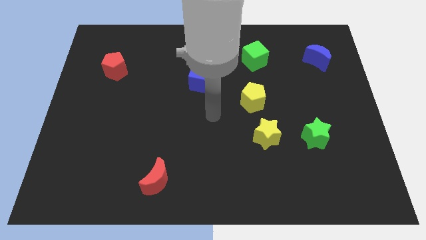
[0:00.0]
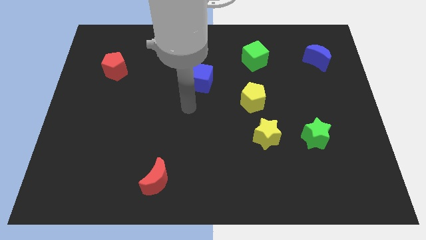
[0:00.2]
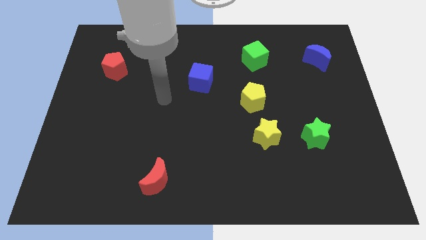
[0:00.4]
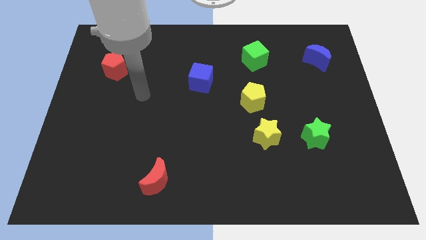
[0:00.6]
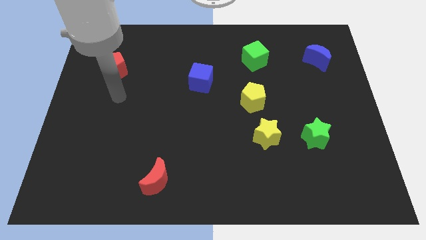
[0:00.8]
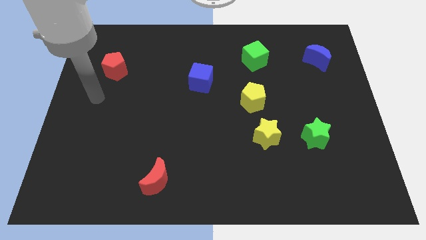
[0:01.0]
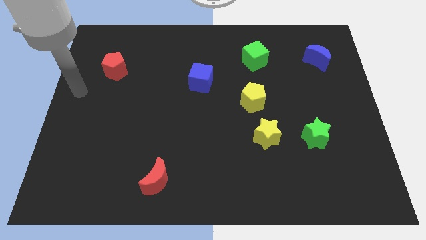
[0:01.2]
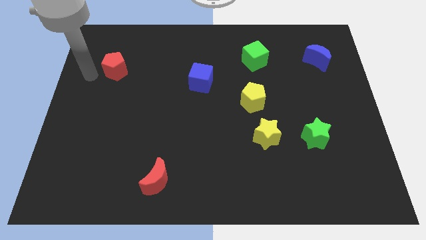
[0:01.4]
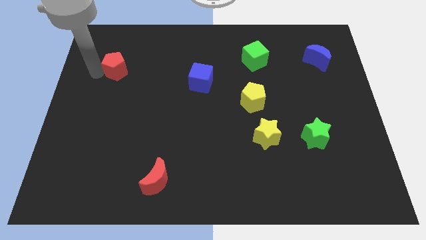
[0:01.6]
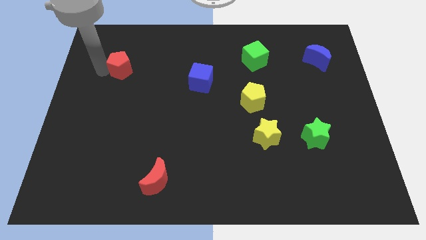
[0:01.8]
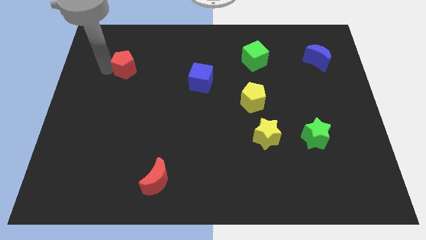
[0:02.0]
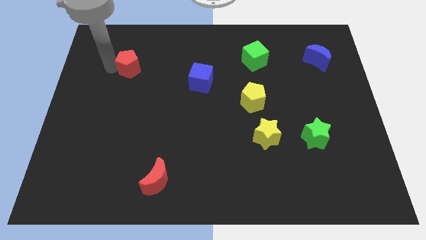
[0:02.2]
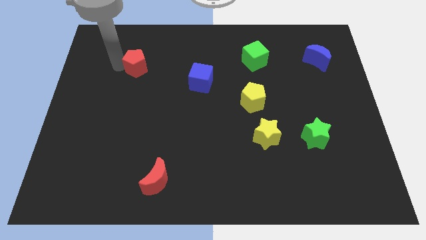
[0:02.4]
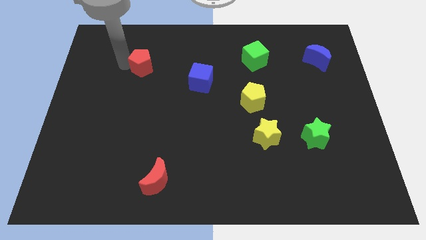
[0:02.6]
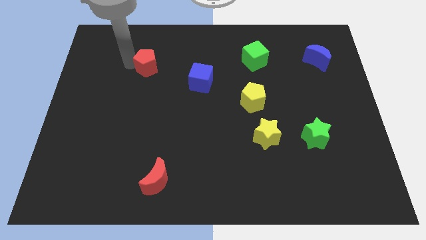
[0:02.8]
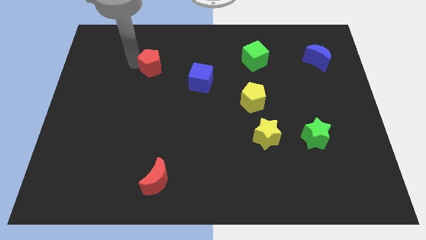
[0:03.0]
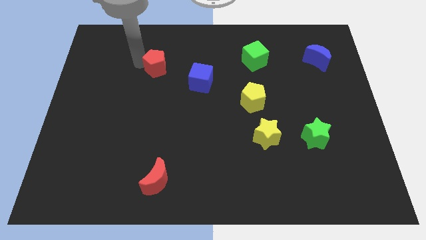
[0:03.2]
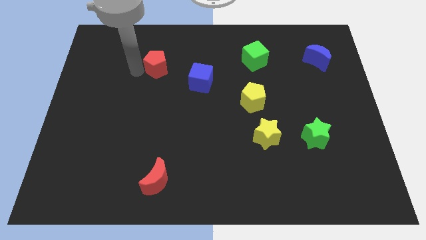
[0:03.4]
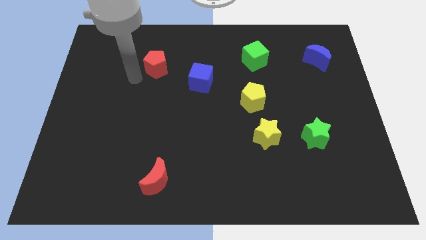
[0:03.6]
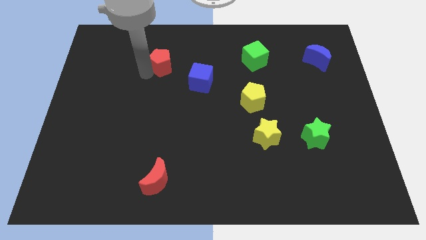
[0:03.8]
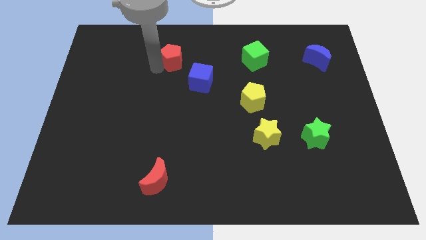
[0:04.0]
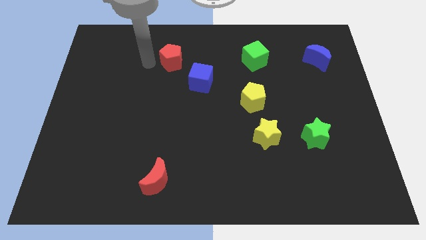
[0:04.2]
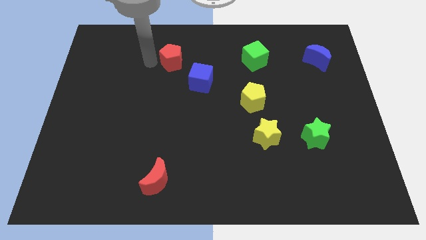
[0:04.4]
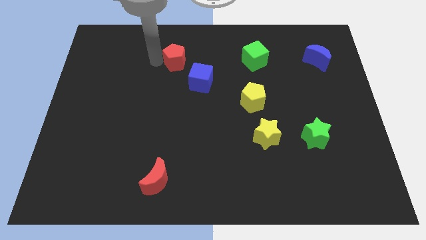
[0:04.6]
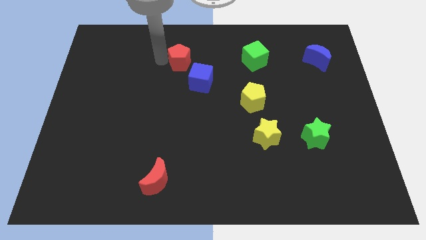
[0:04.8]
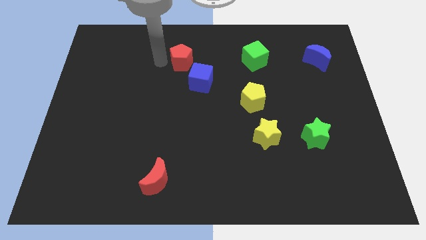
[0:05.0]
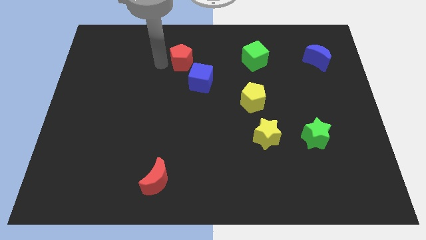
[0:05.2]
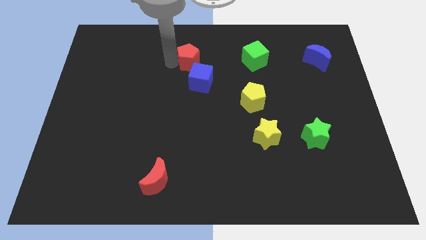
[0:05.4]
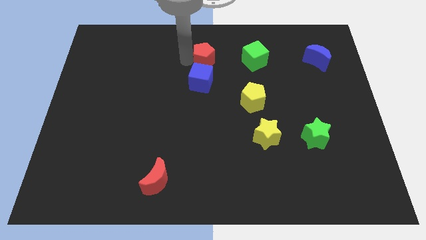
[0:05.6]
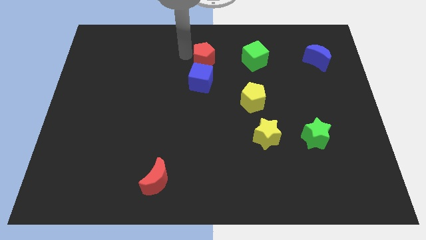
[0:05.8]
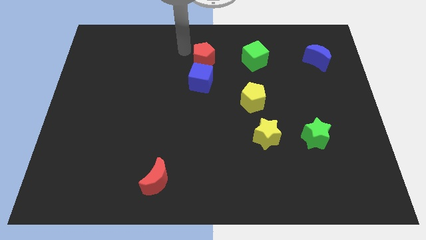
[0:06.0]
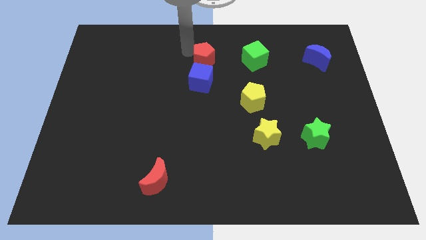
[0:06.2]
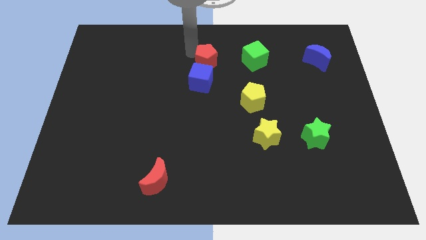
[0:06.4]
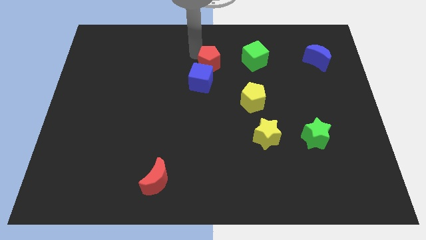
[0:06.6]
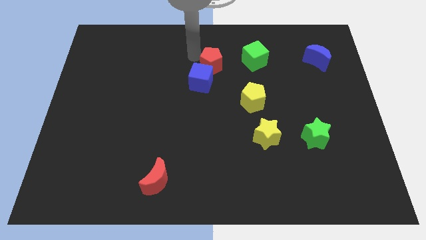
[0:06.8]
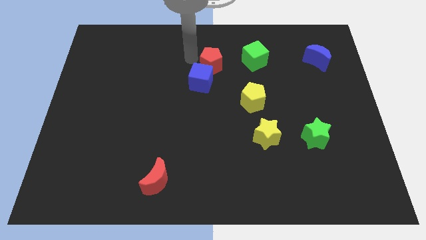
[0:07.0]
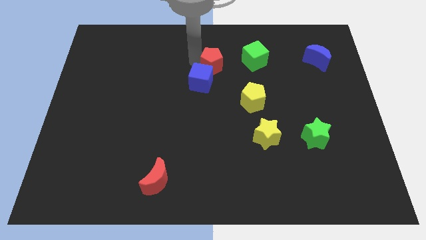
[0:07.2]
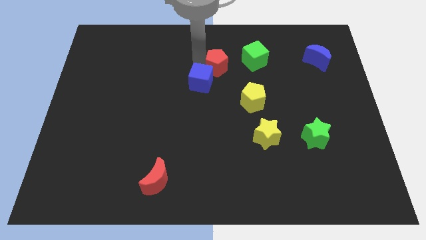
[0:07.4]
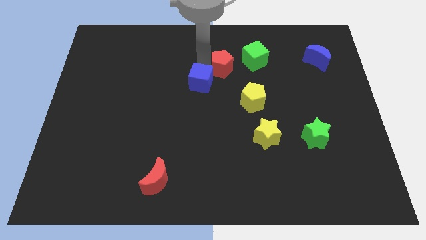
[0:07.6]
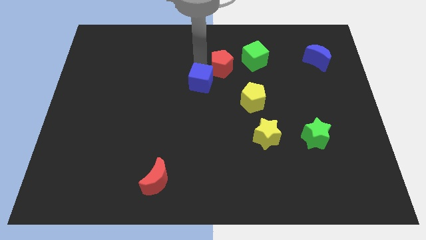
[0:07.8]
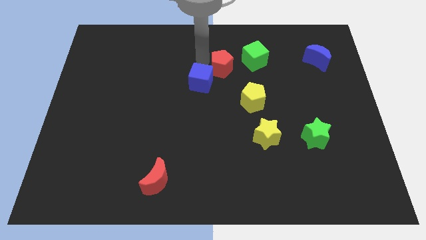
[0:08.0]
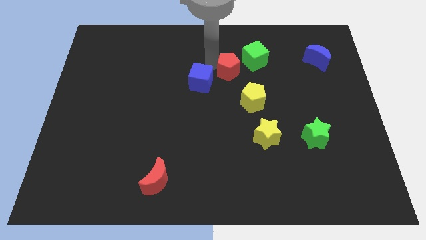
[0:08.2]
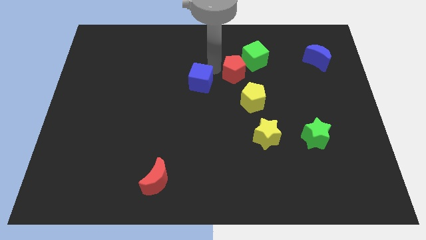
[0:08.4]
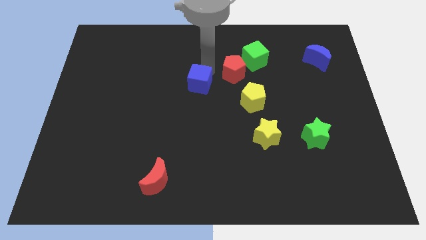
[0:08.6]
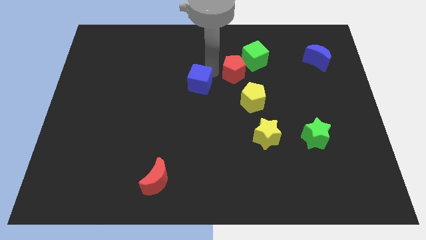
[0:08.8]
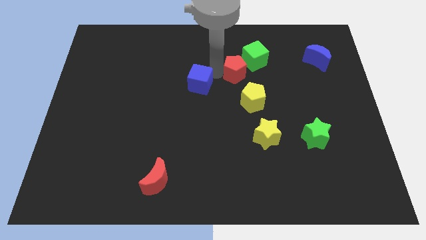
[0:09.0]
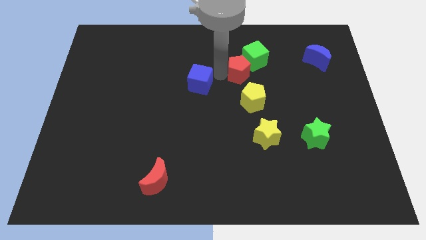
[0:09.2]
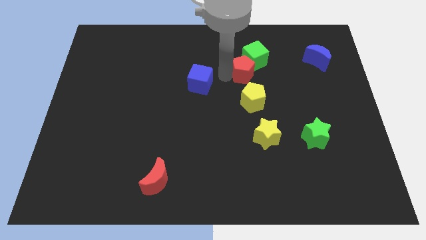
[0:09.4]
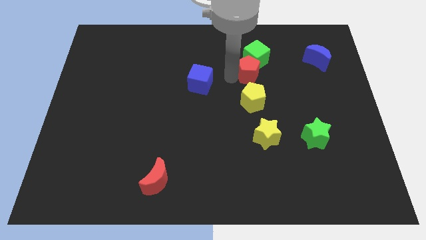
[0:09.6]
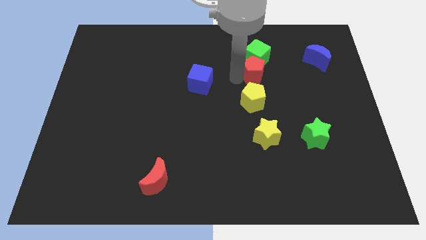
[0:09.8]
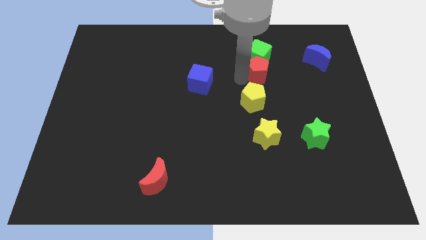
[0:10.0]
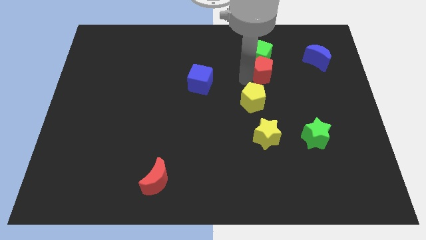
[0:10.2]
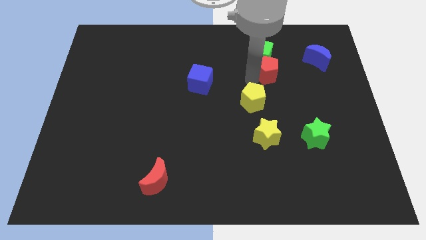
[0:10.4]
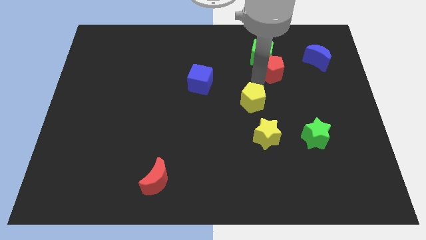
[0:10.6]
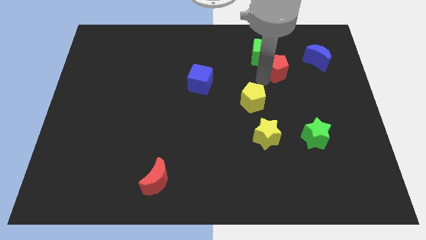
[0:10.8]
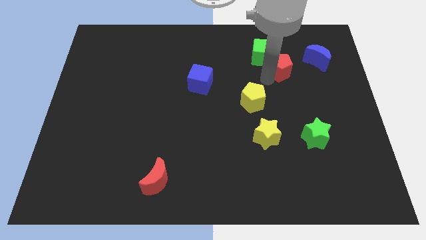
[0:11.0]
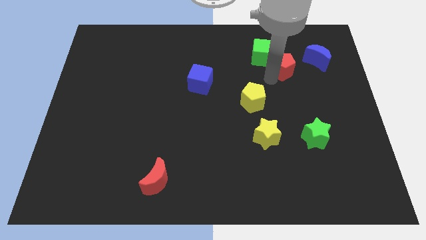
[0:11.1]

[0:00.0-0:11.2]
slide the red pentagon just right of the green cube

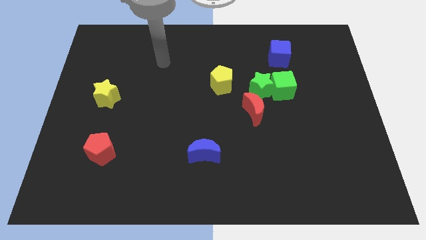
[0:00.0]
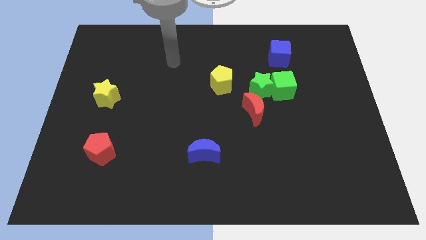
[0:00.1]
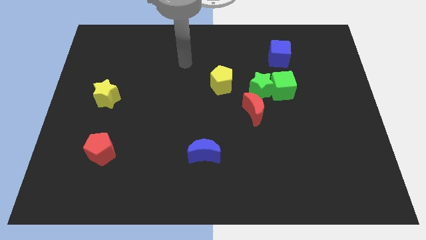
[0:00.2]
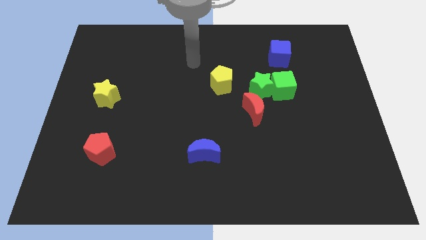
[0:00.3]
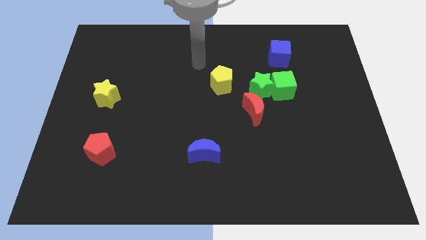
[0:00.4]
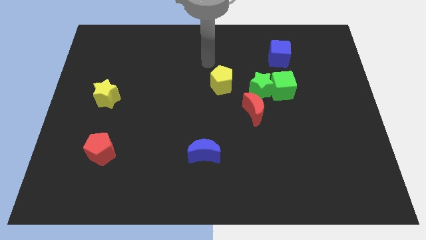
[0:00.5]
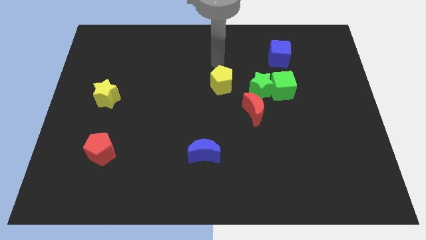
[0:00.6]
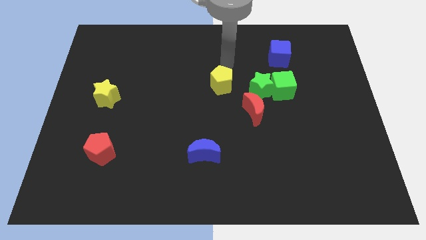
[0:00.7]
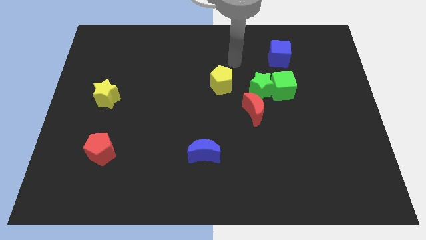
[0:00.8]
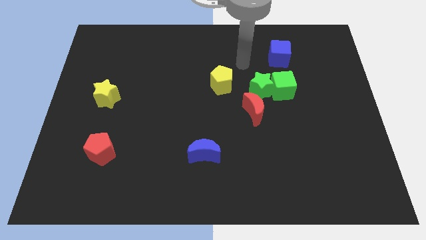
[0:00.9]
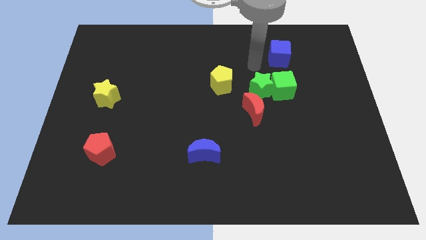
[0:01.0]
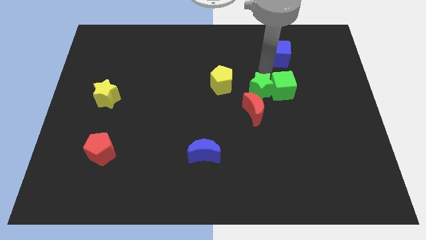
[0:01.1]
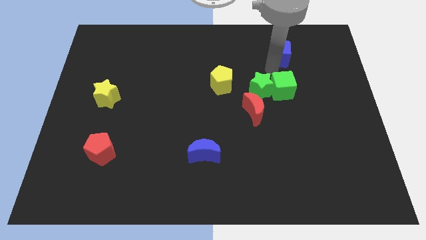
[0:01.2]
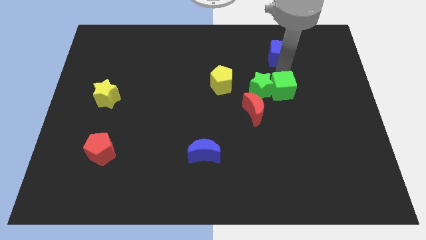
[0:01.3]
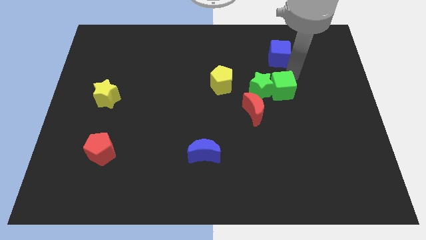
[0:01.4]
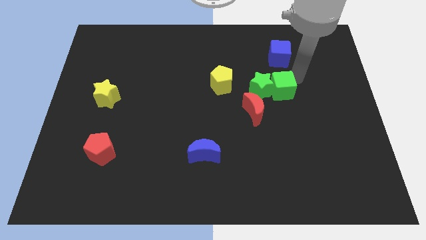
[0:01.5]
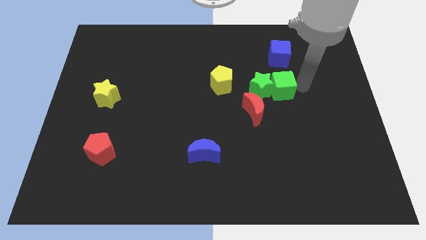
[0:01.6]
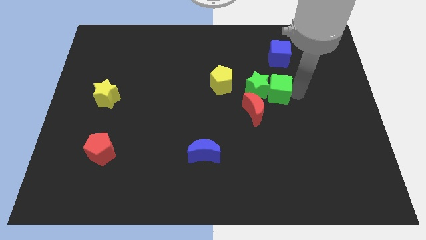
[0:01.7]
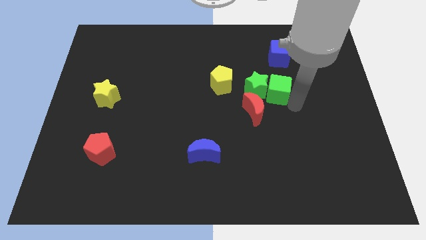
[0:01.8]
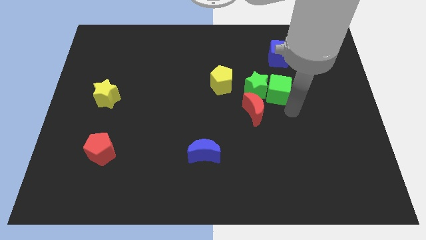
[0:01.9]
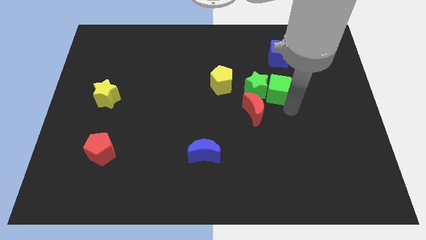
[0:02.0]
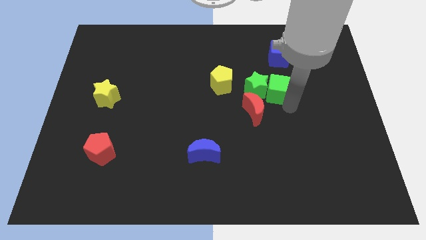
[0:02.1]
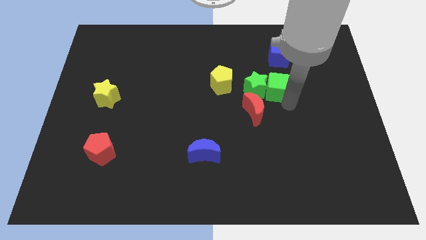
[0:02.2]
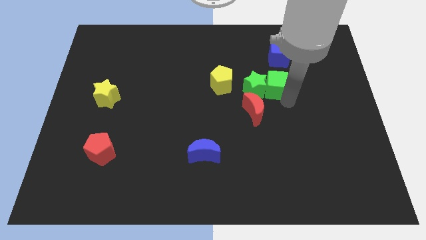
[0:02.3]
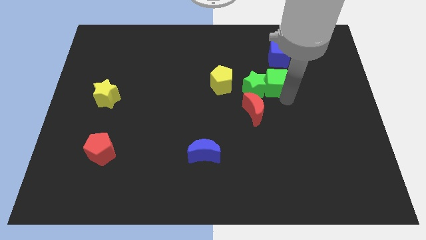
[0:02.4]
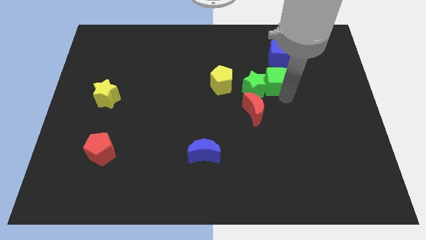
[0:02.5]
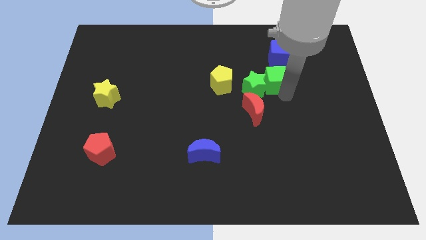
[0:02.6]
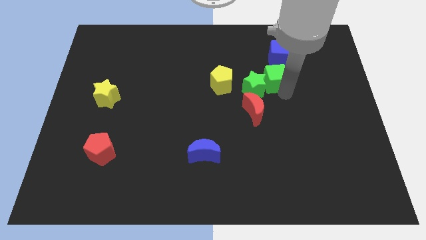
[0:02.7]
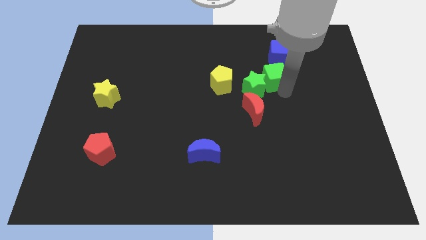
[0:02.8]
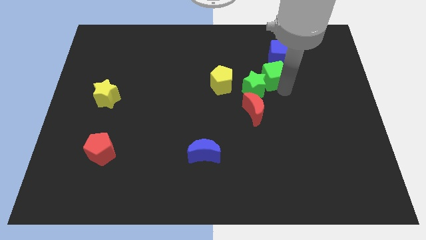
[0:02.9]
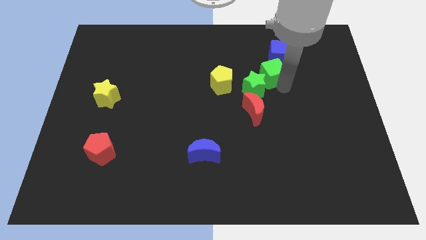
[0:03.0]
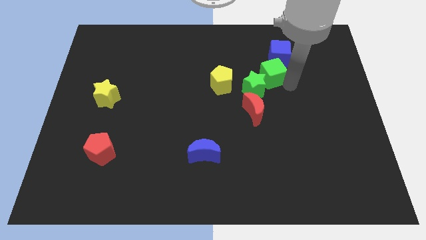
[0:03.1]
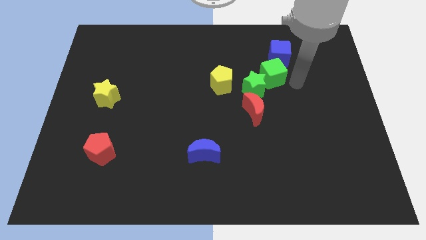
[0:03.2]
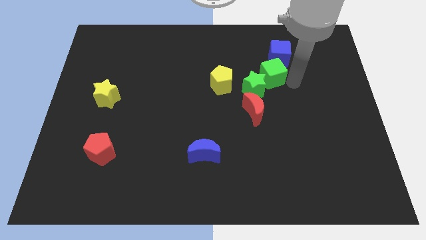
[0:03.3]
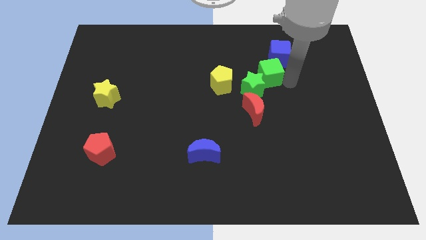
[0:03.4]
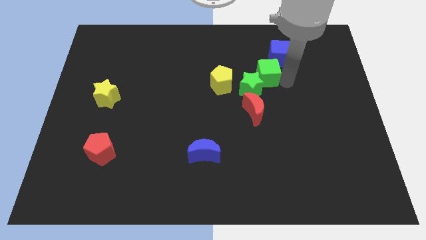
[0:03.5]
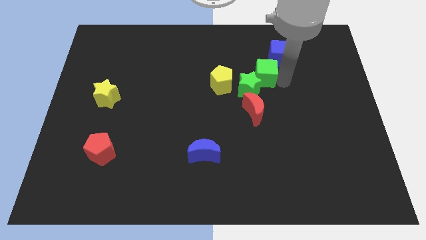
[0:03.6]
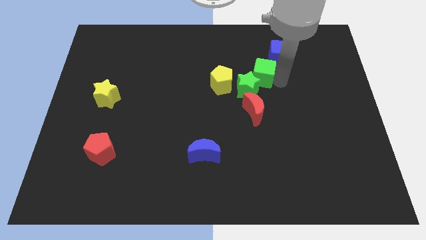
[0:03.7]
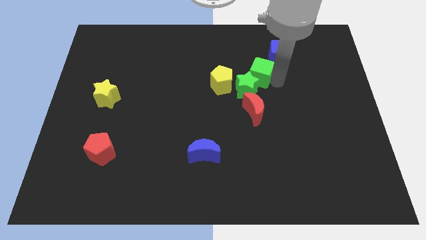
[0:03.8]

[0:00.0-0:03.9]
move the green cube to the top right of the yellow pentagon
